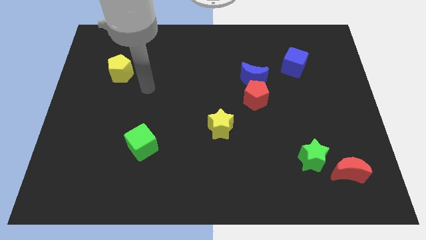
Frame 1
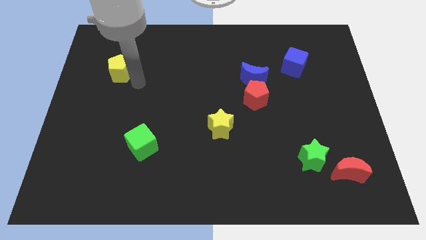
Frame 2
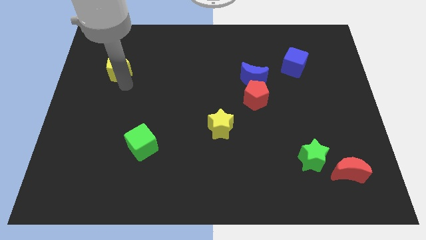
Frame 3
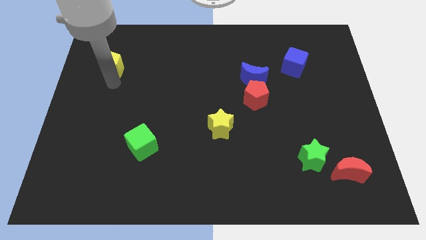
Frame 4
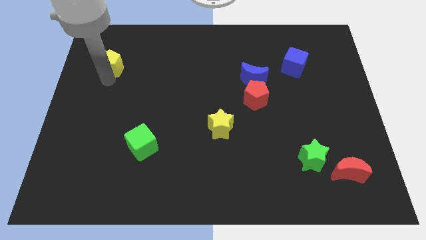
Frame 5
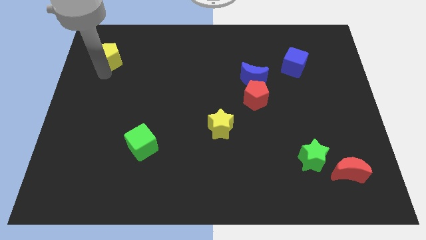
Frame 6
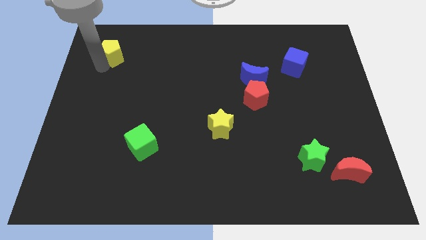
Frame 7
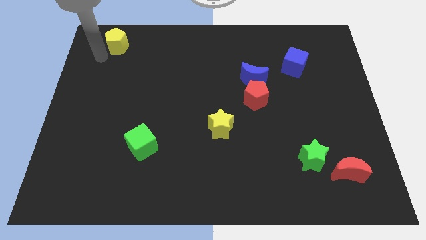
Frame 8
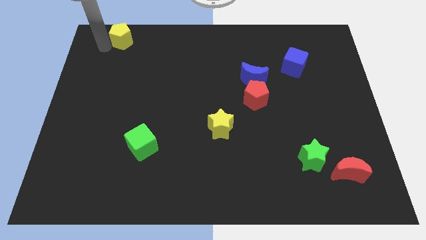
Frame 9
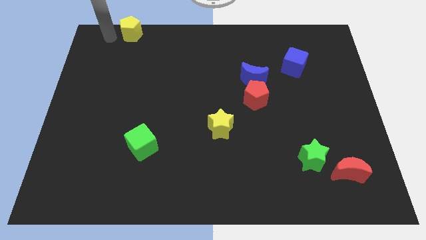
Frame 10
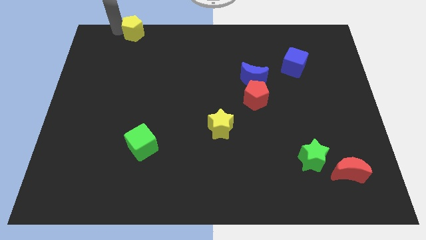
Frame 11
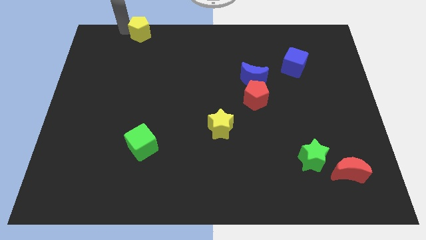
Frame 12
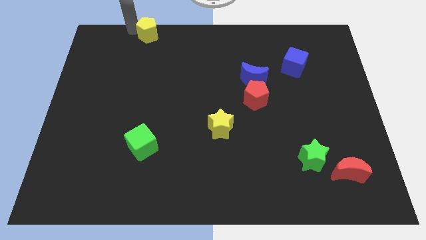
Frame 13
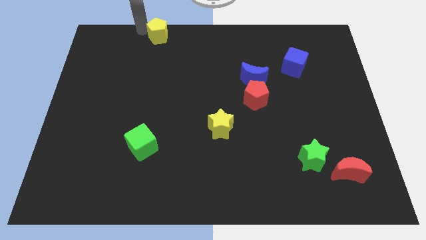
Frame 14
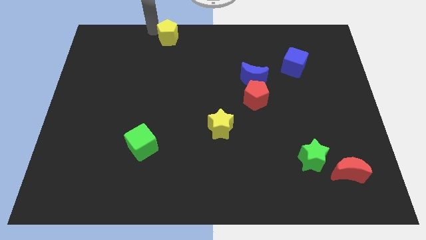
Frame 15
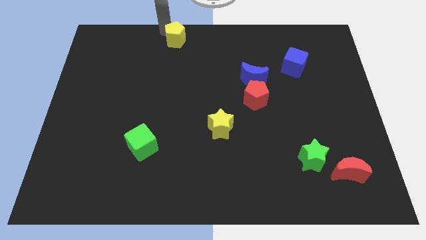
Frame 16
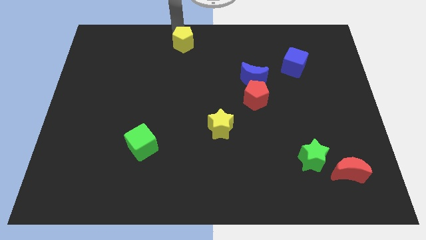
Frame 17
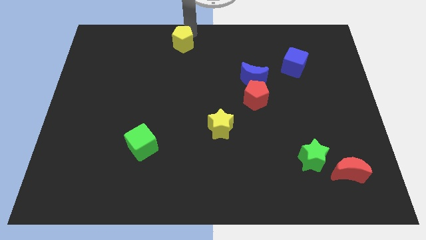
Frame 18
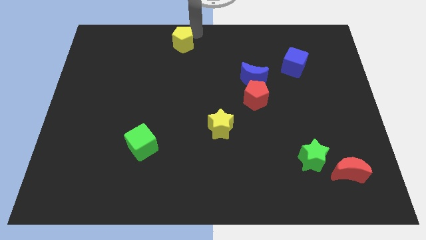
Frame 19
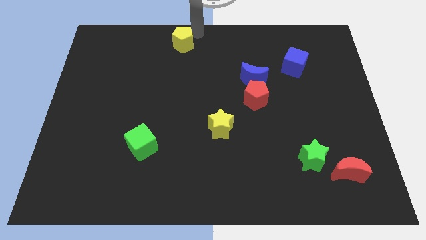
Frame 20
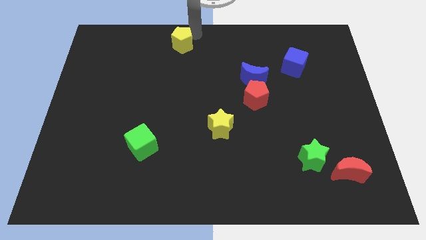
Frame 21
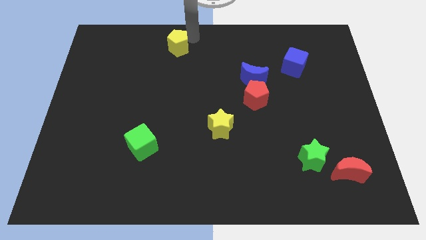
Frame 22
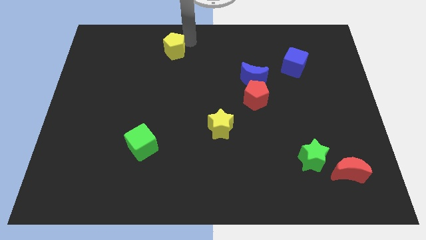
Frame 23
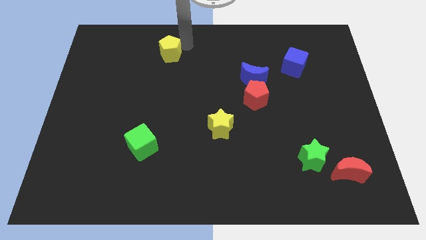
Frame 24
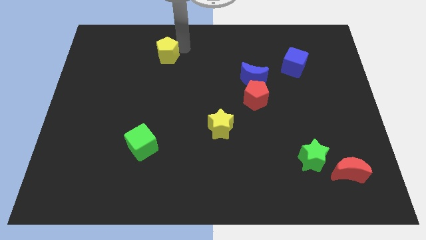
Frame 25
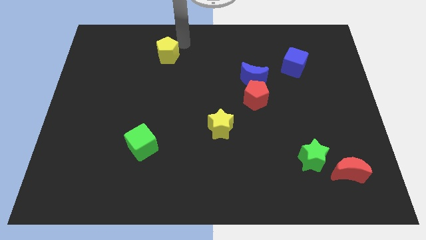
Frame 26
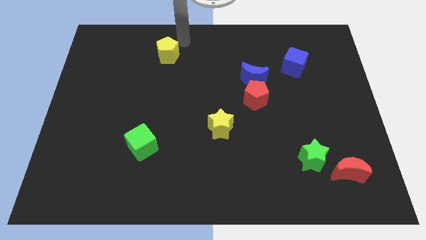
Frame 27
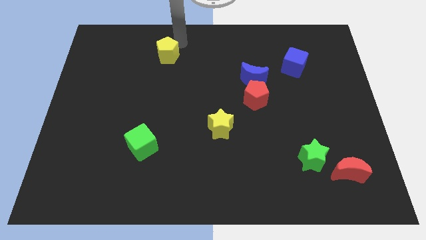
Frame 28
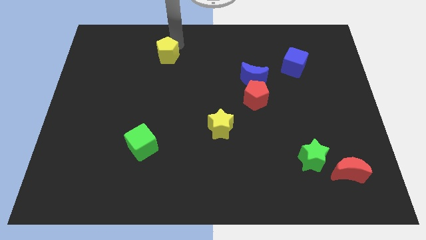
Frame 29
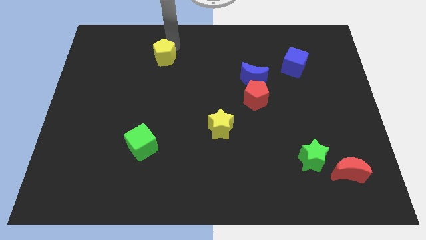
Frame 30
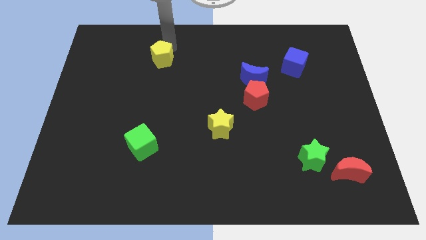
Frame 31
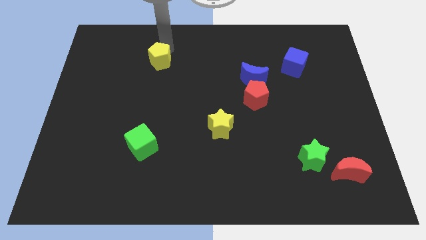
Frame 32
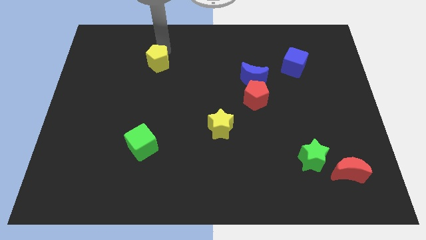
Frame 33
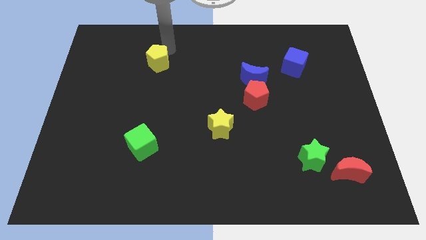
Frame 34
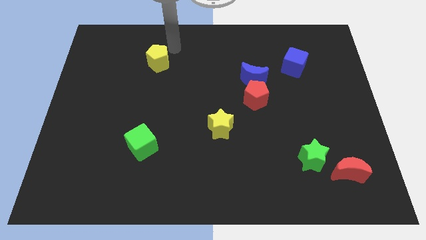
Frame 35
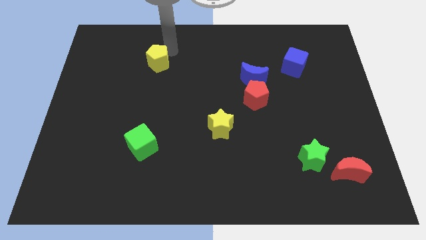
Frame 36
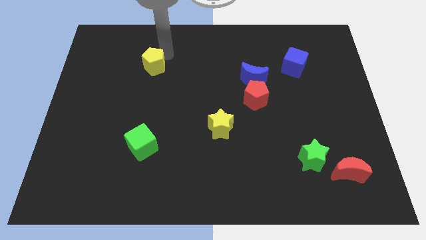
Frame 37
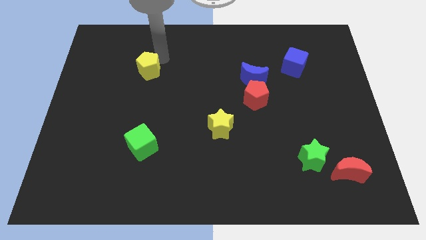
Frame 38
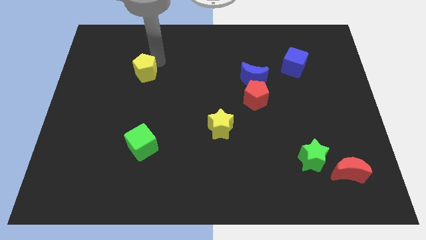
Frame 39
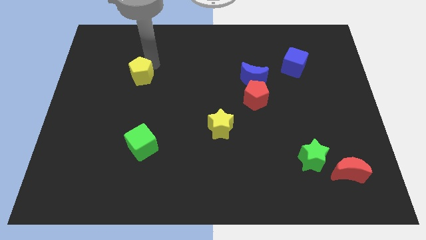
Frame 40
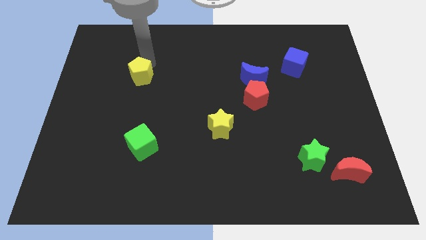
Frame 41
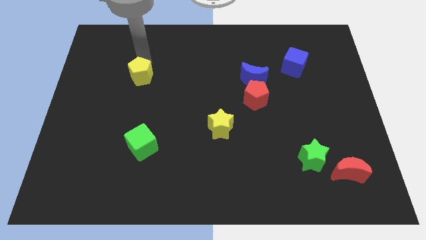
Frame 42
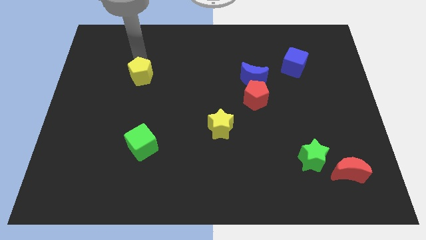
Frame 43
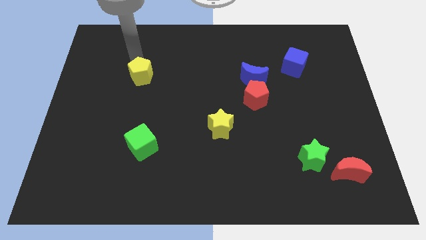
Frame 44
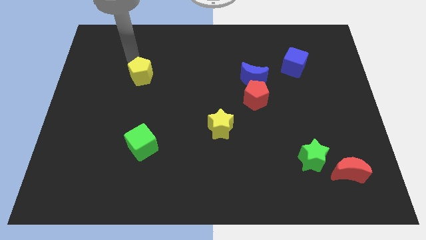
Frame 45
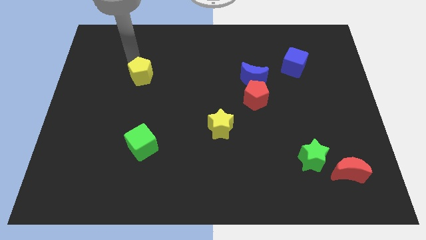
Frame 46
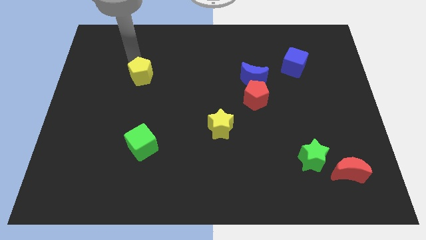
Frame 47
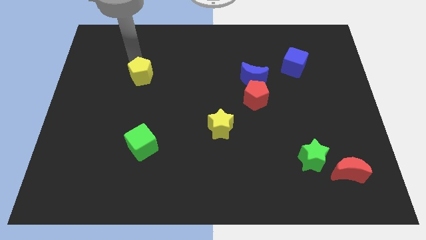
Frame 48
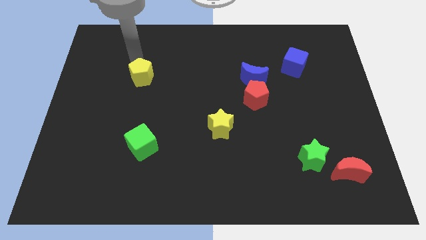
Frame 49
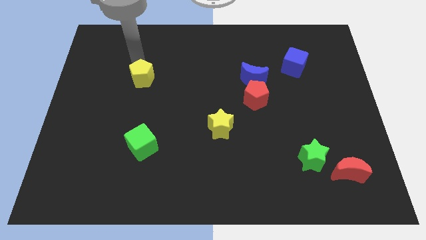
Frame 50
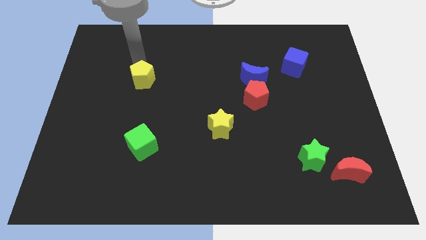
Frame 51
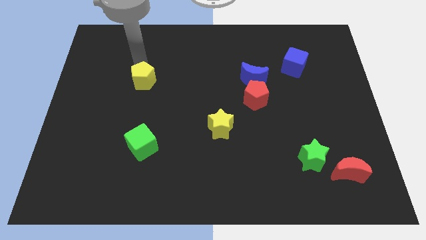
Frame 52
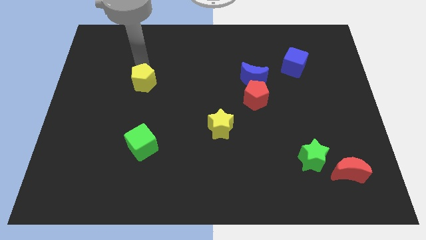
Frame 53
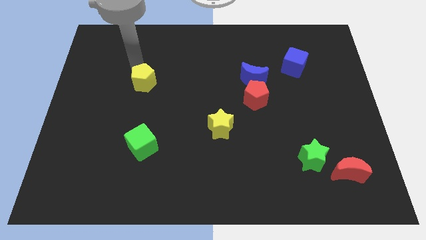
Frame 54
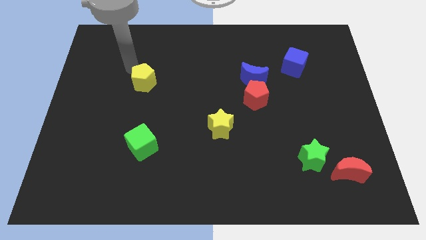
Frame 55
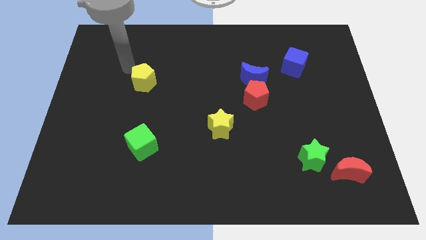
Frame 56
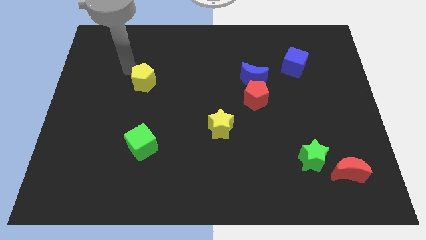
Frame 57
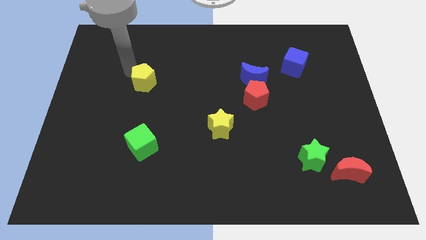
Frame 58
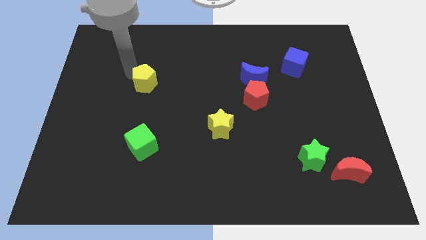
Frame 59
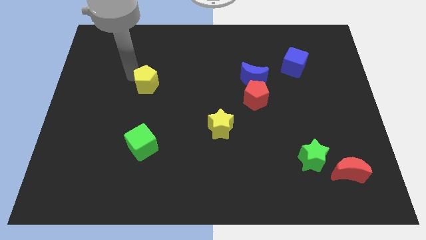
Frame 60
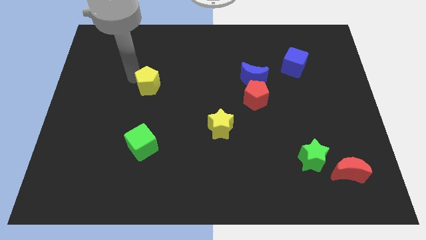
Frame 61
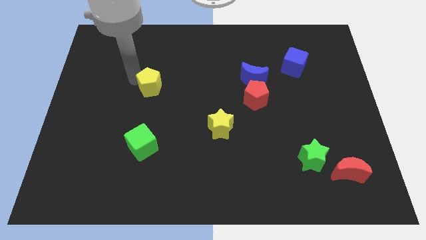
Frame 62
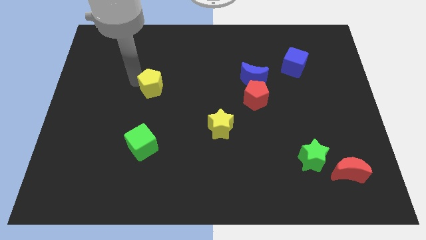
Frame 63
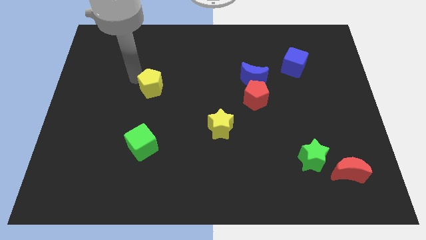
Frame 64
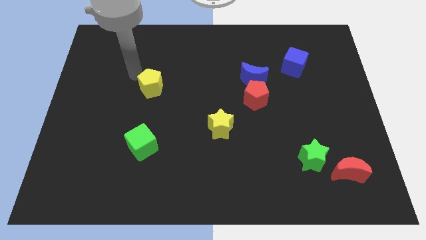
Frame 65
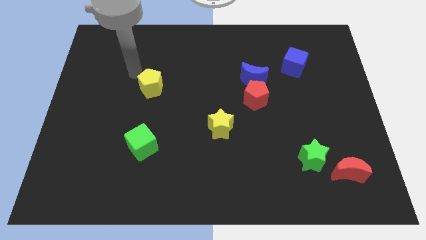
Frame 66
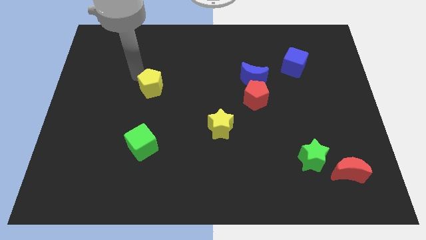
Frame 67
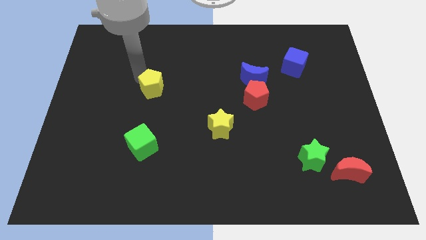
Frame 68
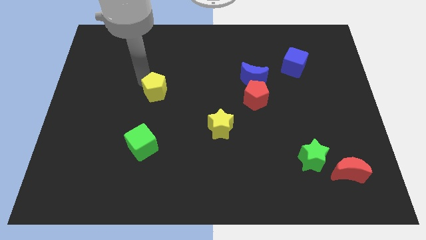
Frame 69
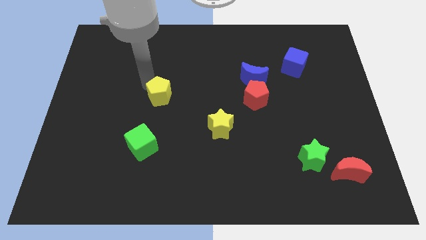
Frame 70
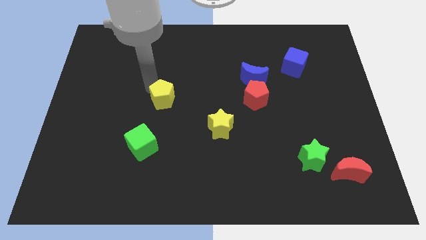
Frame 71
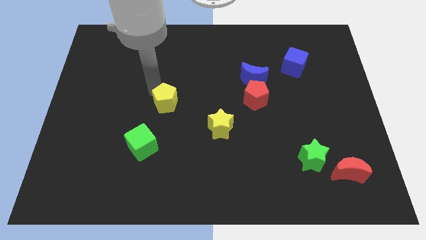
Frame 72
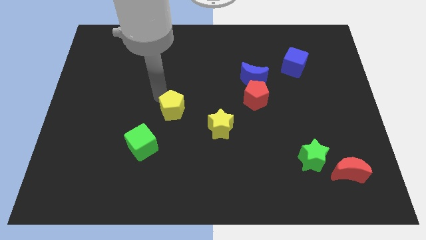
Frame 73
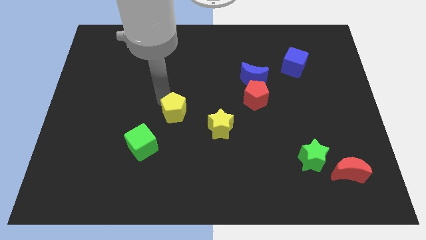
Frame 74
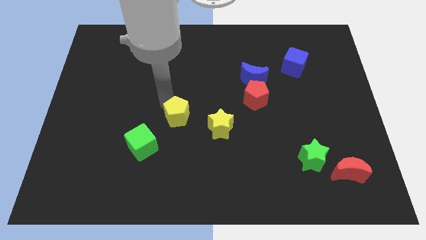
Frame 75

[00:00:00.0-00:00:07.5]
push the yellow pentagon downwards and right

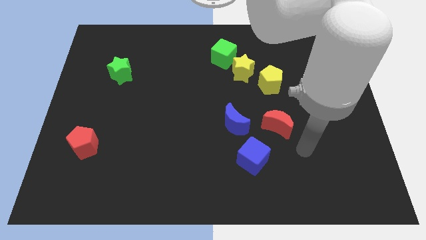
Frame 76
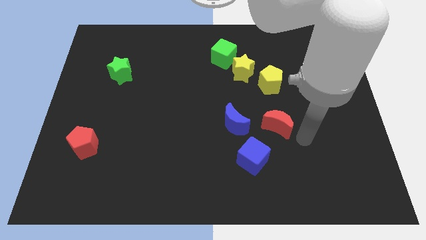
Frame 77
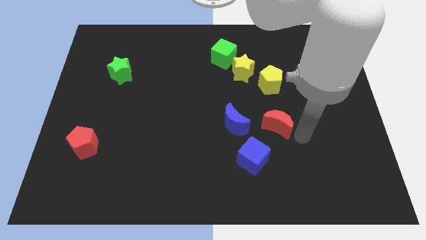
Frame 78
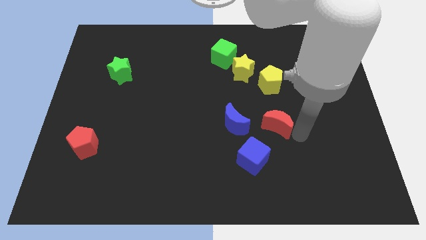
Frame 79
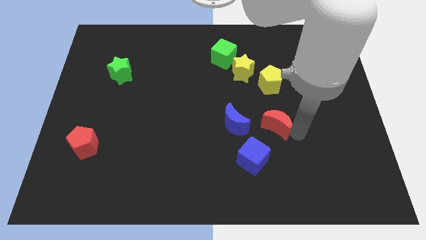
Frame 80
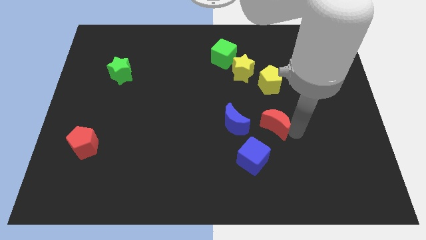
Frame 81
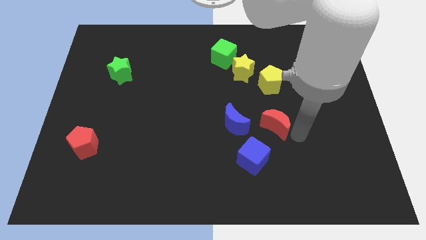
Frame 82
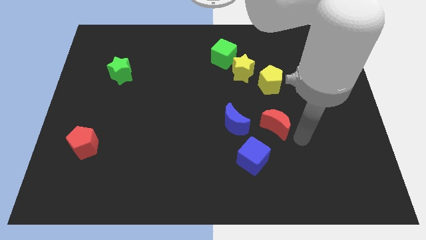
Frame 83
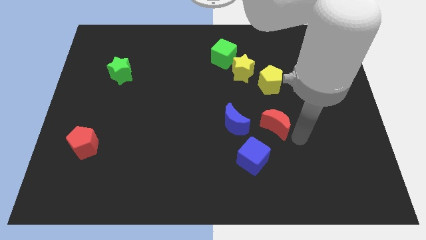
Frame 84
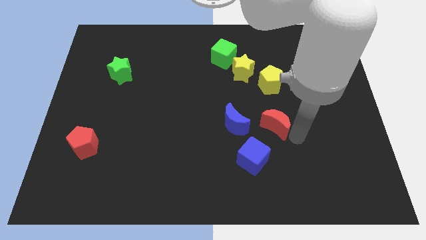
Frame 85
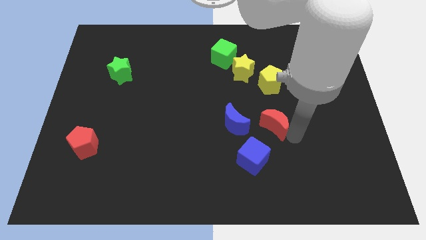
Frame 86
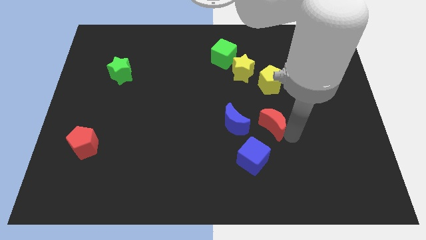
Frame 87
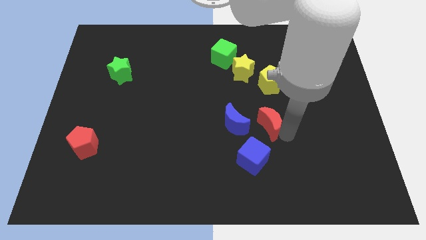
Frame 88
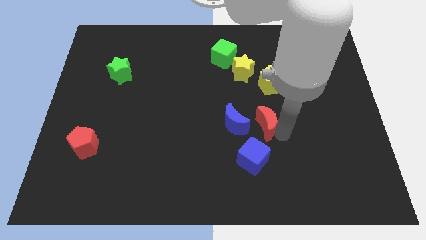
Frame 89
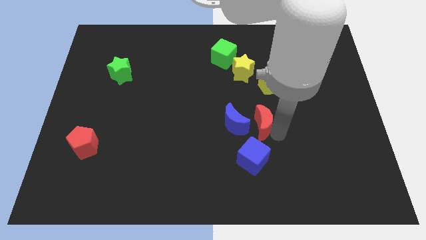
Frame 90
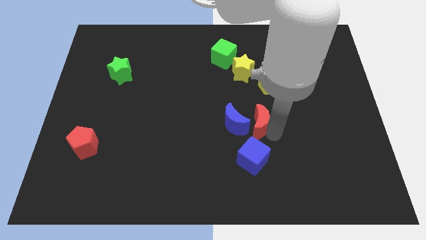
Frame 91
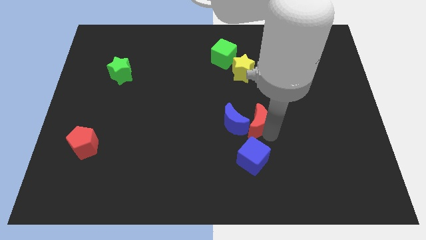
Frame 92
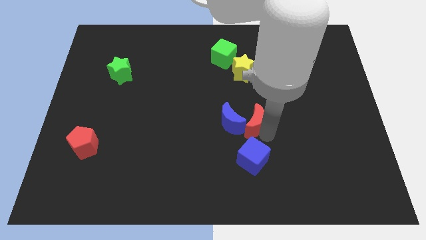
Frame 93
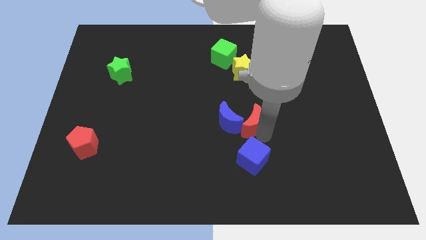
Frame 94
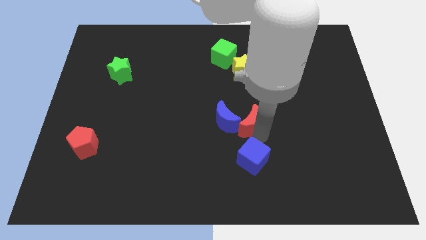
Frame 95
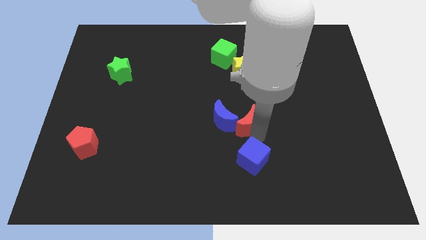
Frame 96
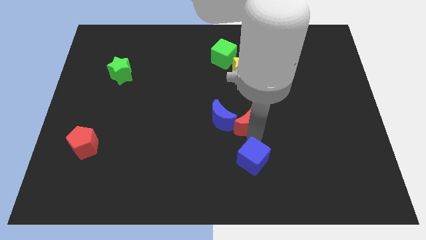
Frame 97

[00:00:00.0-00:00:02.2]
move the red moon to the left slightly
